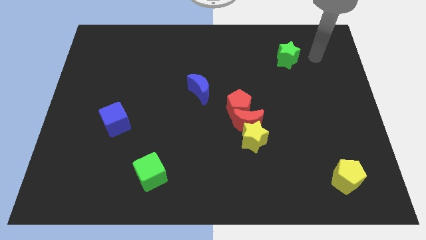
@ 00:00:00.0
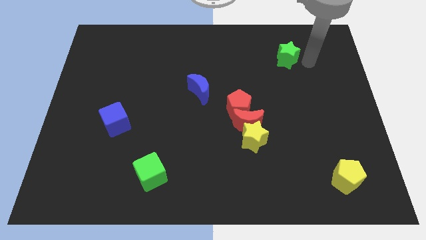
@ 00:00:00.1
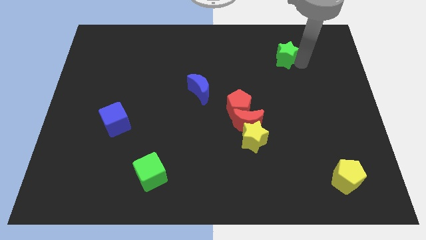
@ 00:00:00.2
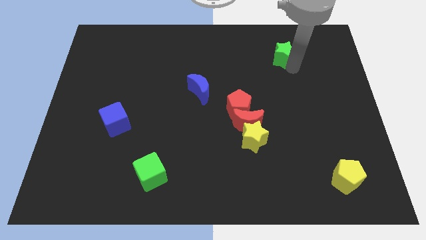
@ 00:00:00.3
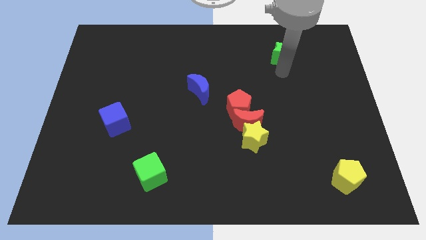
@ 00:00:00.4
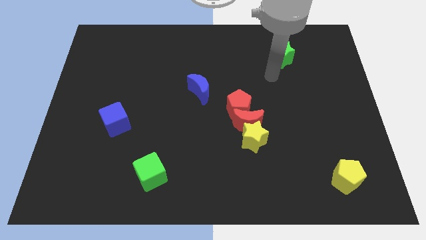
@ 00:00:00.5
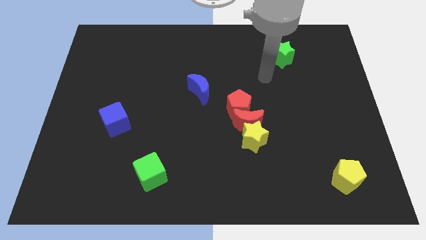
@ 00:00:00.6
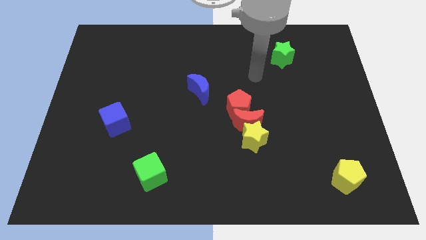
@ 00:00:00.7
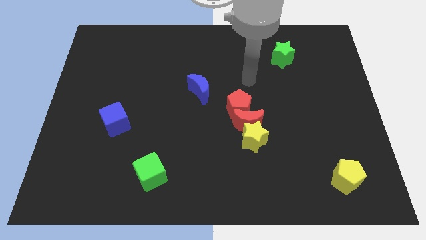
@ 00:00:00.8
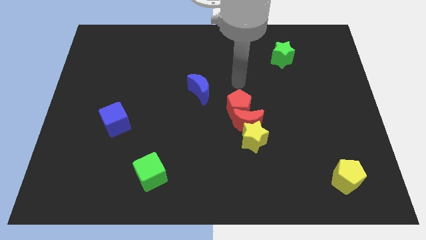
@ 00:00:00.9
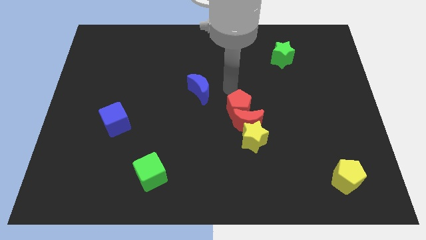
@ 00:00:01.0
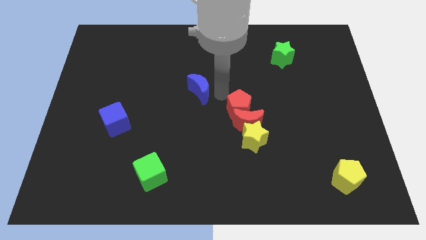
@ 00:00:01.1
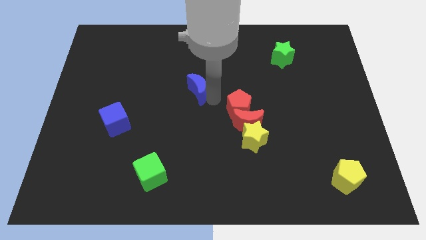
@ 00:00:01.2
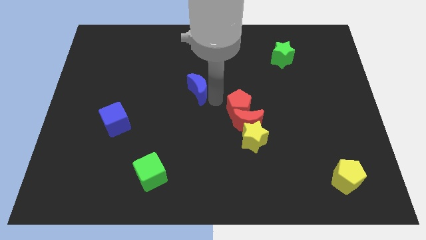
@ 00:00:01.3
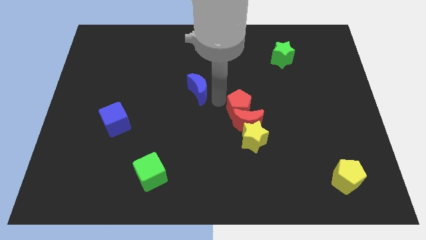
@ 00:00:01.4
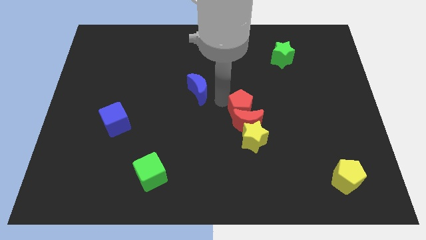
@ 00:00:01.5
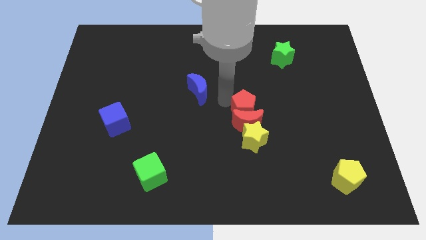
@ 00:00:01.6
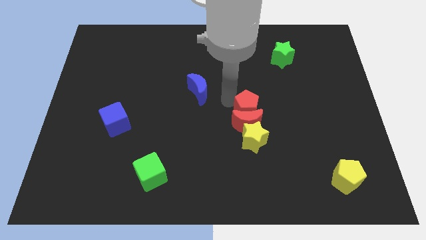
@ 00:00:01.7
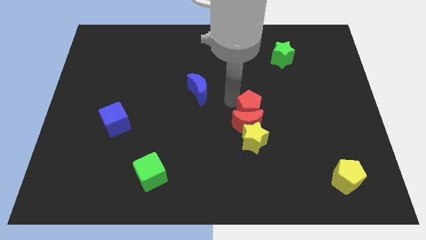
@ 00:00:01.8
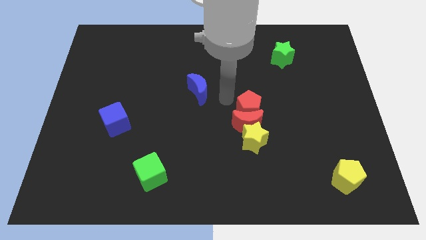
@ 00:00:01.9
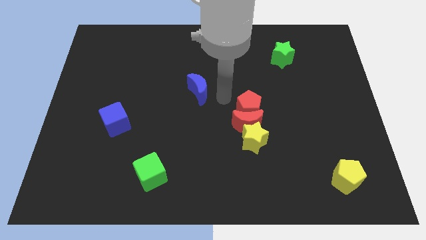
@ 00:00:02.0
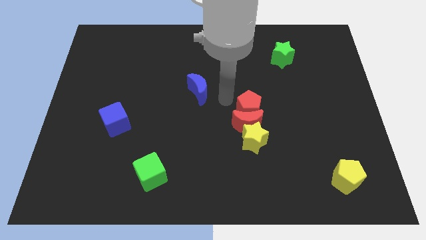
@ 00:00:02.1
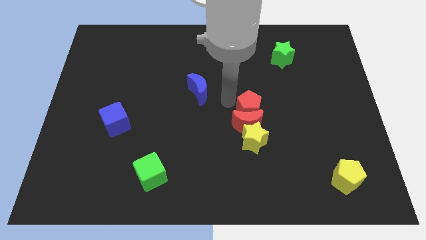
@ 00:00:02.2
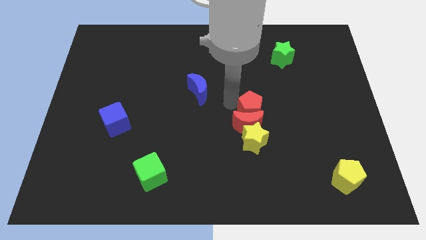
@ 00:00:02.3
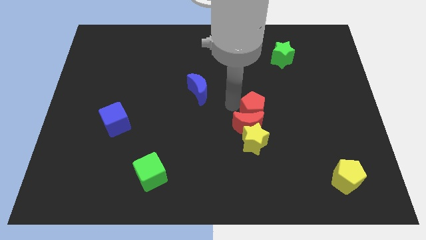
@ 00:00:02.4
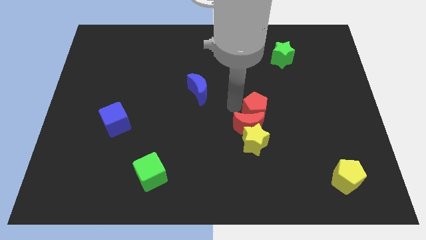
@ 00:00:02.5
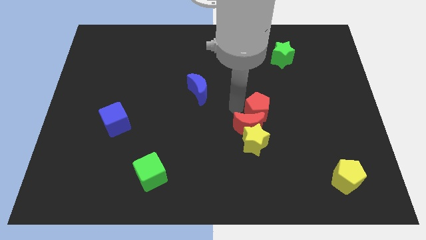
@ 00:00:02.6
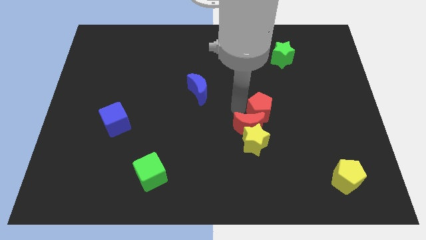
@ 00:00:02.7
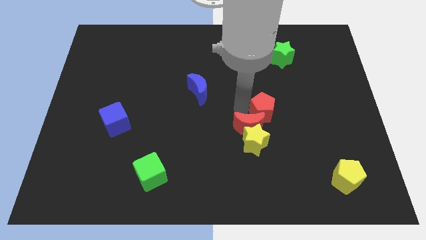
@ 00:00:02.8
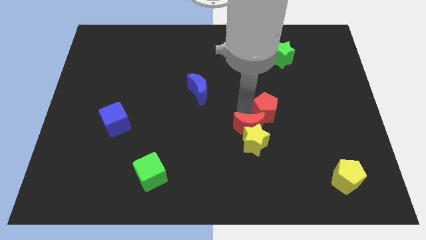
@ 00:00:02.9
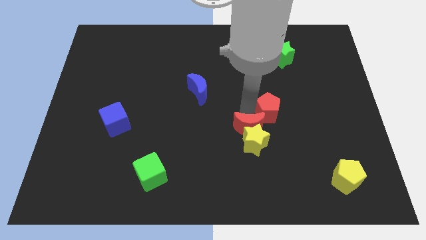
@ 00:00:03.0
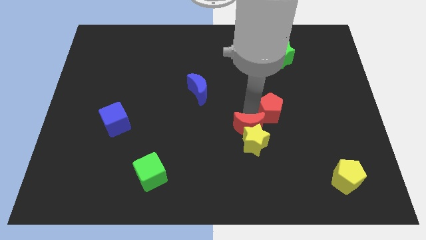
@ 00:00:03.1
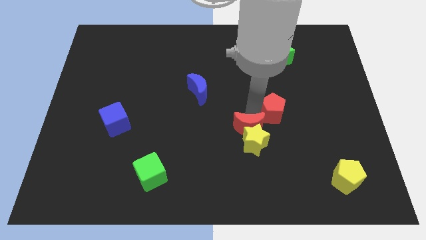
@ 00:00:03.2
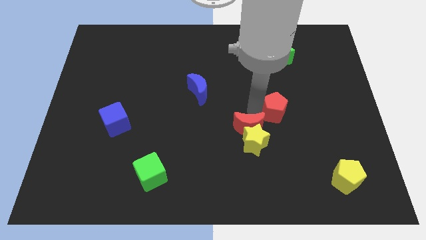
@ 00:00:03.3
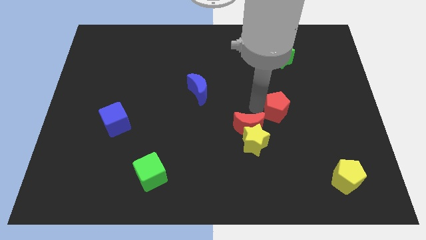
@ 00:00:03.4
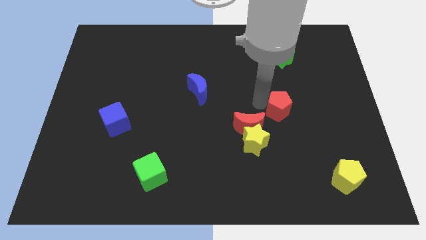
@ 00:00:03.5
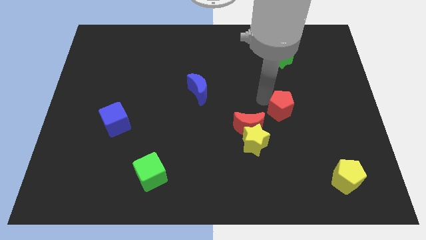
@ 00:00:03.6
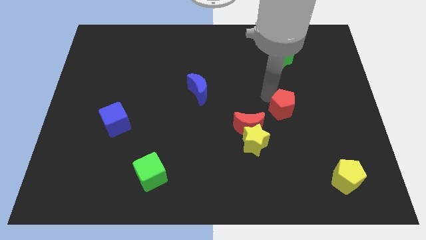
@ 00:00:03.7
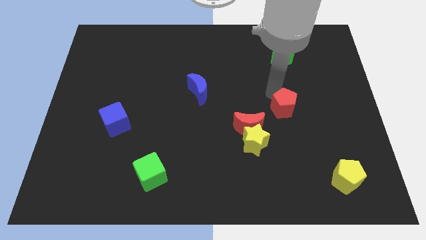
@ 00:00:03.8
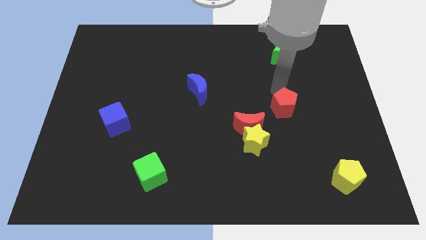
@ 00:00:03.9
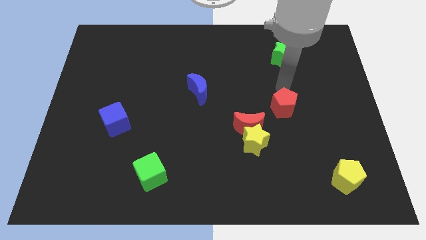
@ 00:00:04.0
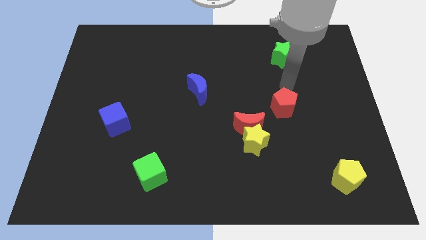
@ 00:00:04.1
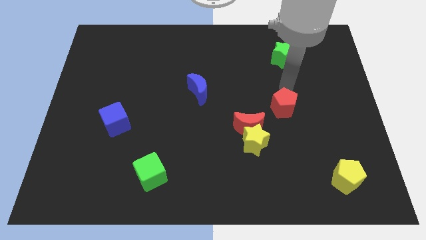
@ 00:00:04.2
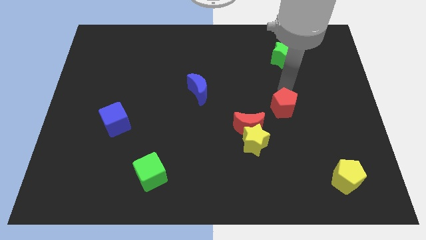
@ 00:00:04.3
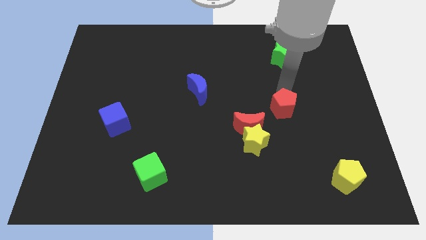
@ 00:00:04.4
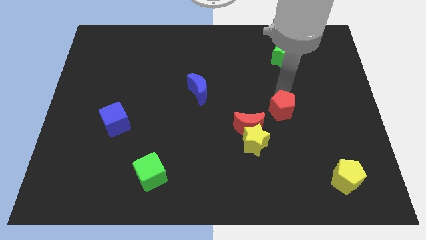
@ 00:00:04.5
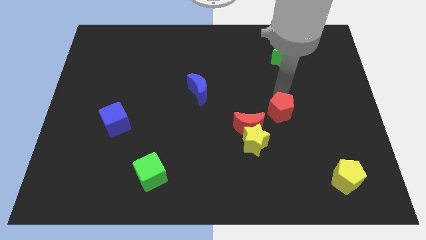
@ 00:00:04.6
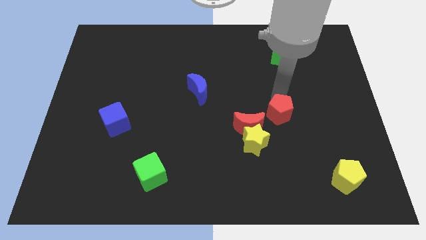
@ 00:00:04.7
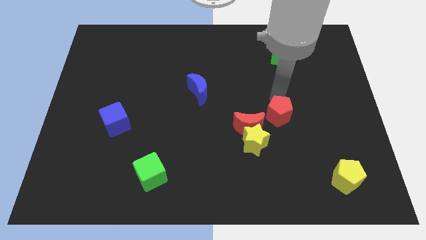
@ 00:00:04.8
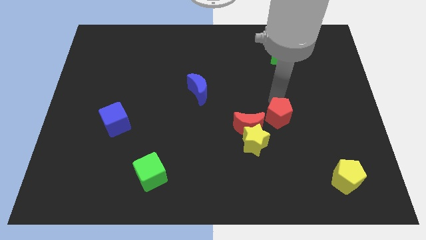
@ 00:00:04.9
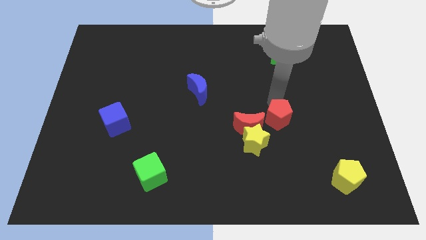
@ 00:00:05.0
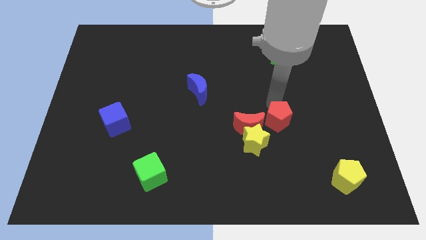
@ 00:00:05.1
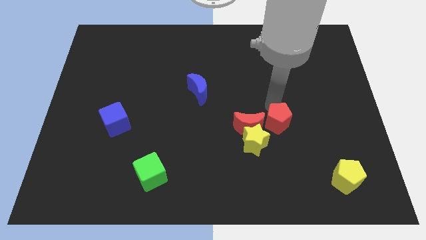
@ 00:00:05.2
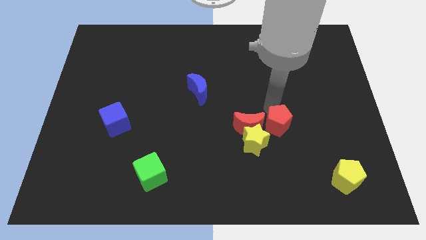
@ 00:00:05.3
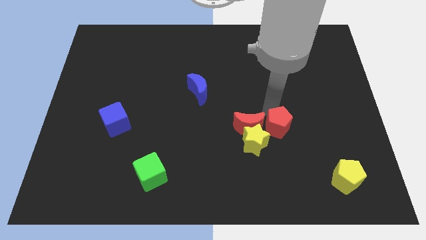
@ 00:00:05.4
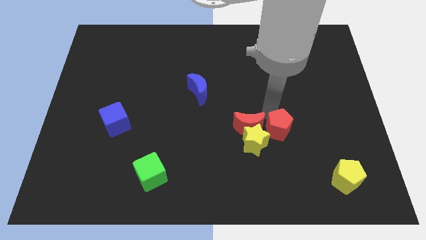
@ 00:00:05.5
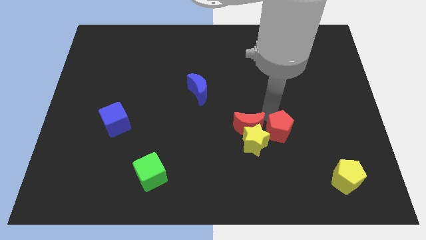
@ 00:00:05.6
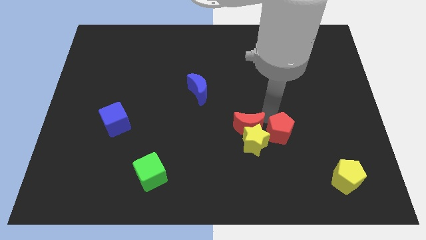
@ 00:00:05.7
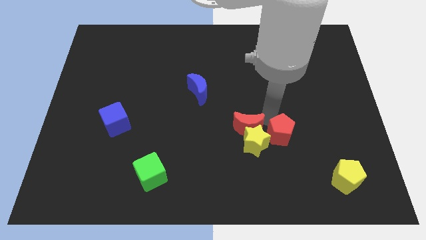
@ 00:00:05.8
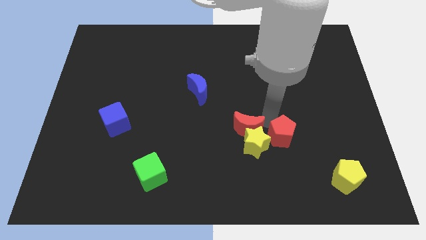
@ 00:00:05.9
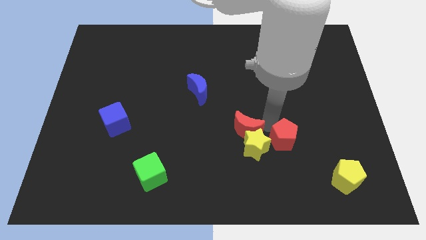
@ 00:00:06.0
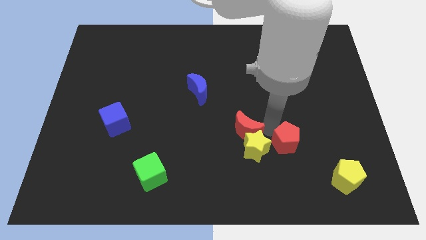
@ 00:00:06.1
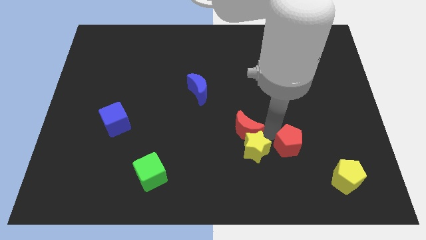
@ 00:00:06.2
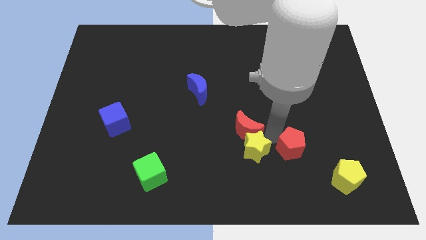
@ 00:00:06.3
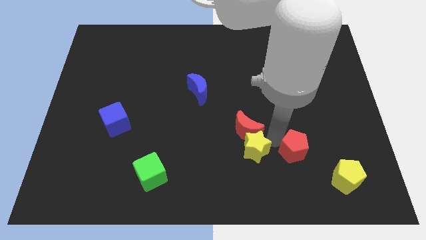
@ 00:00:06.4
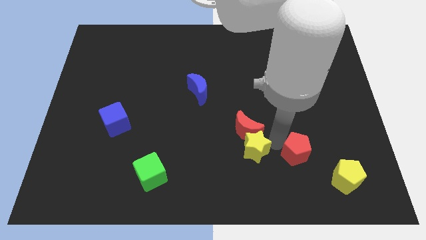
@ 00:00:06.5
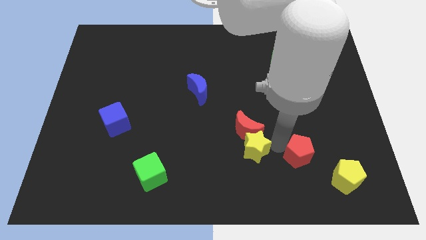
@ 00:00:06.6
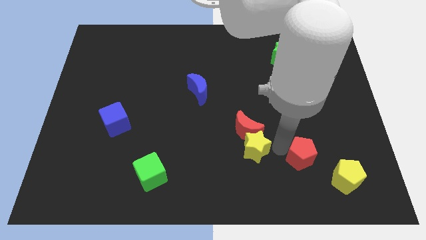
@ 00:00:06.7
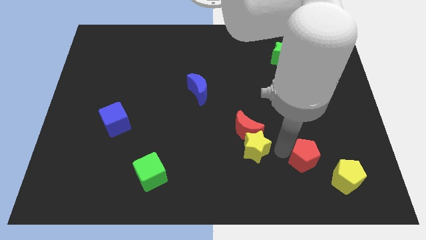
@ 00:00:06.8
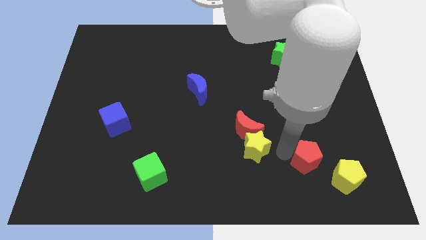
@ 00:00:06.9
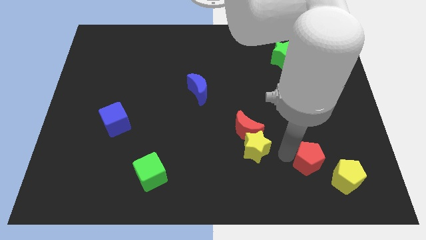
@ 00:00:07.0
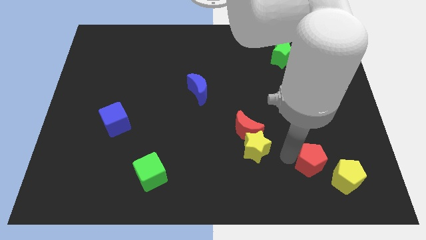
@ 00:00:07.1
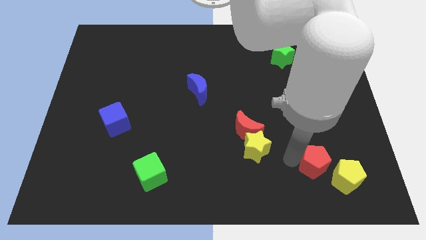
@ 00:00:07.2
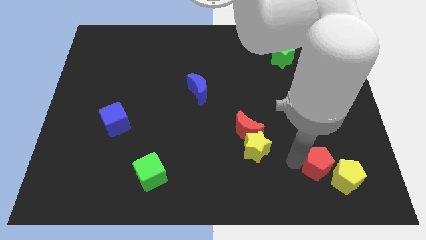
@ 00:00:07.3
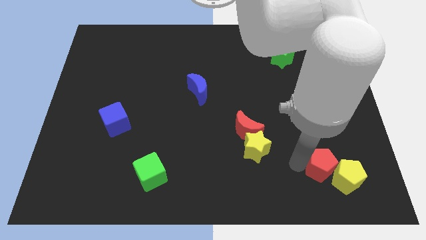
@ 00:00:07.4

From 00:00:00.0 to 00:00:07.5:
slide the red pentagon next to the yellow pentagon
